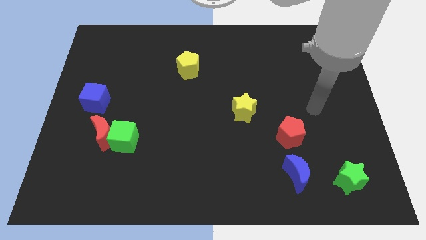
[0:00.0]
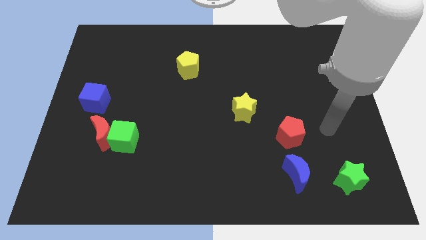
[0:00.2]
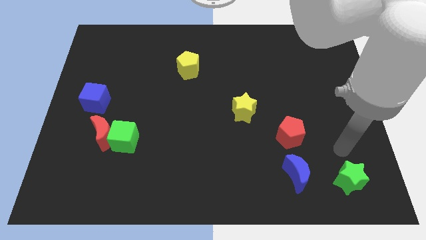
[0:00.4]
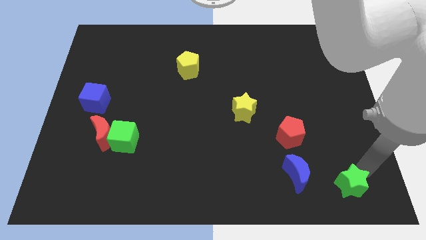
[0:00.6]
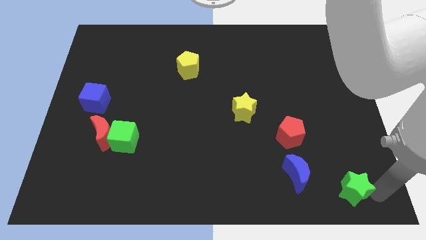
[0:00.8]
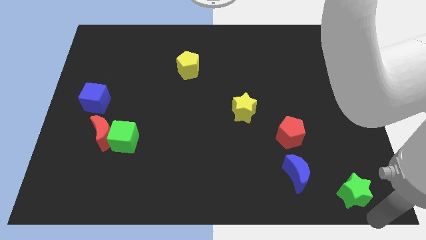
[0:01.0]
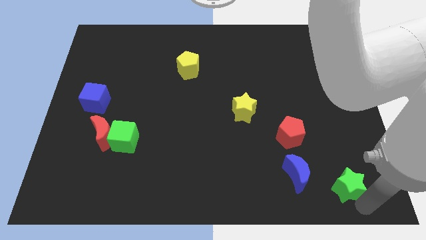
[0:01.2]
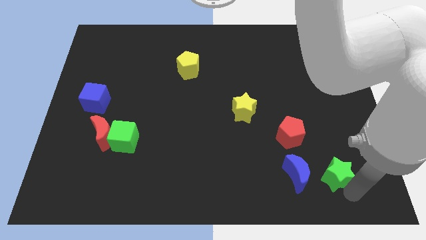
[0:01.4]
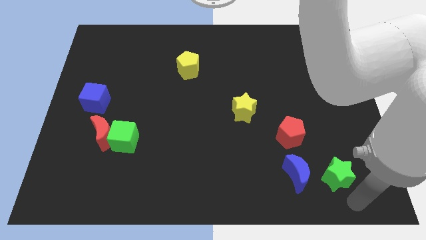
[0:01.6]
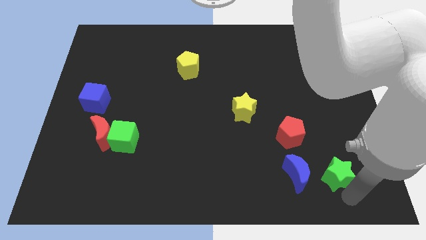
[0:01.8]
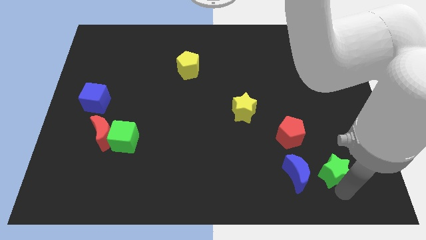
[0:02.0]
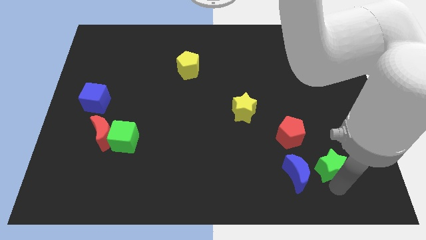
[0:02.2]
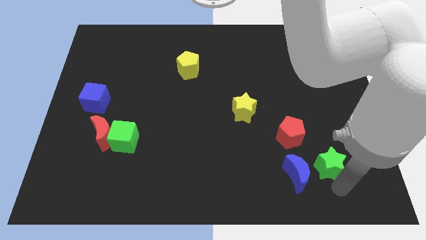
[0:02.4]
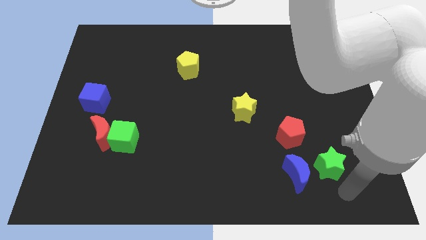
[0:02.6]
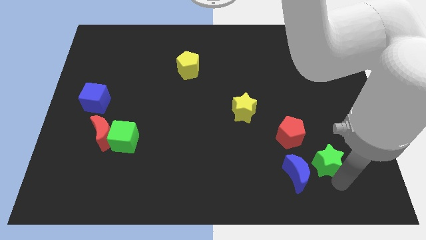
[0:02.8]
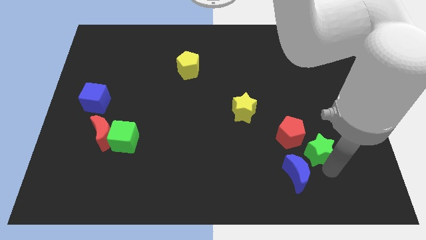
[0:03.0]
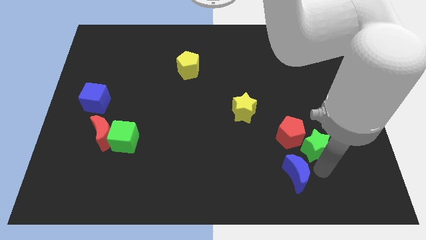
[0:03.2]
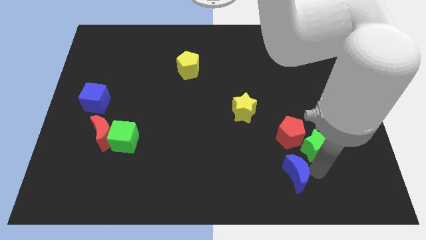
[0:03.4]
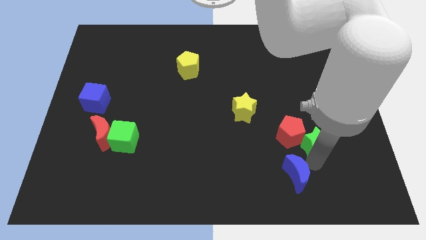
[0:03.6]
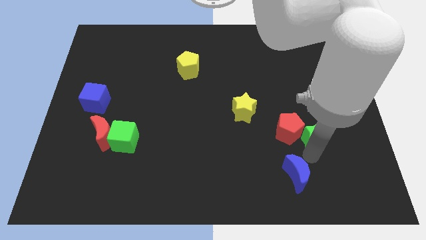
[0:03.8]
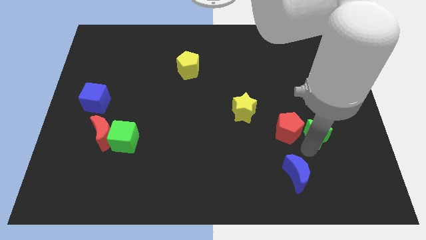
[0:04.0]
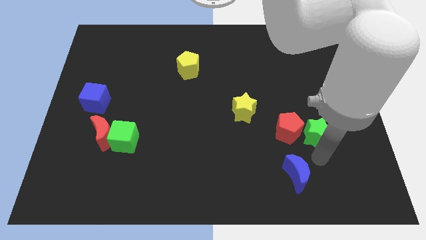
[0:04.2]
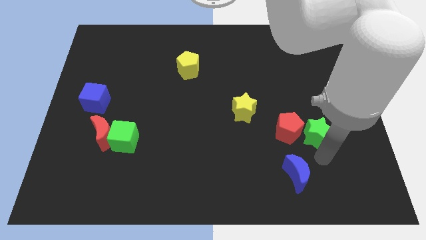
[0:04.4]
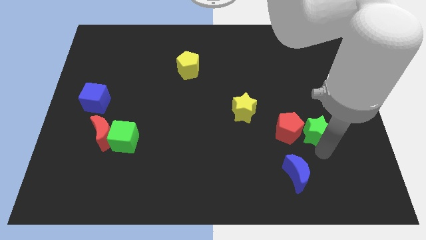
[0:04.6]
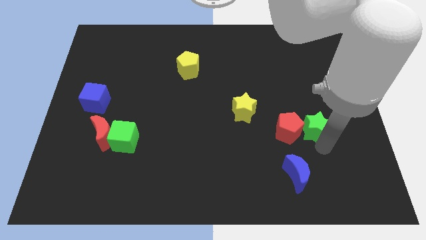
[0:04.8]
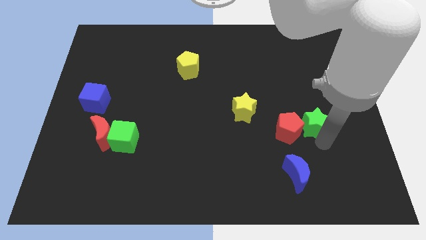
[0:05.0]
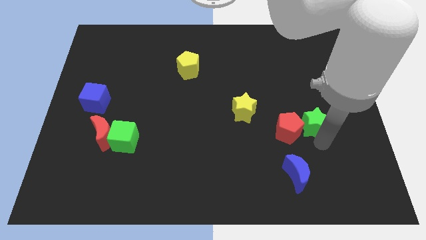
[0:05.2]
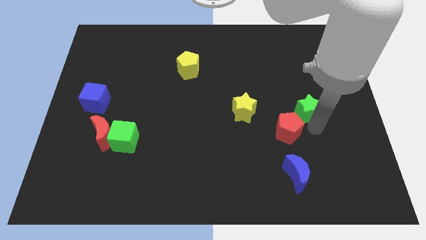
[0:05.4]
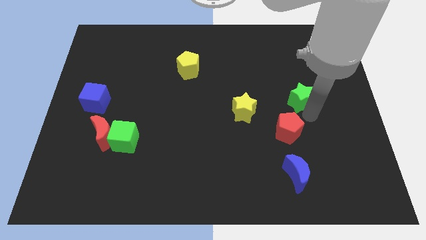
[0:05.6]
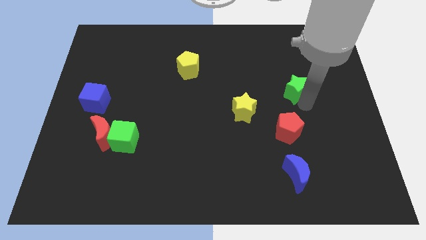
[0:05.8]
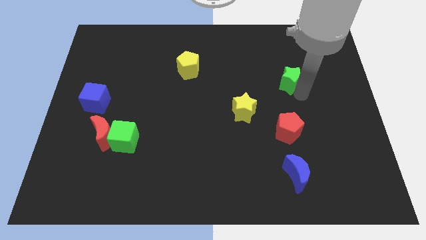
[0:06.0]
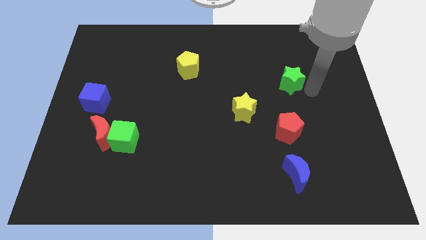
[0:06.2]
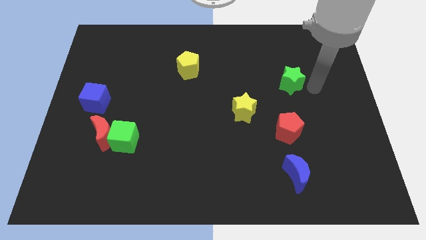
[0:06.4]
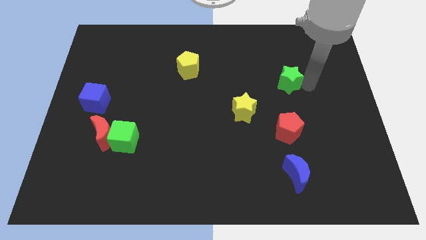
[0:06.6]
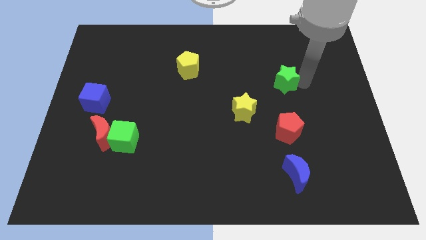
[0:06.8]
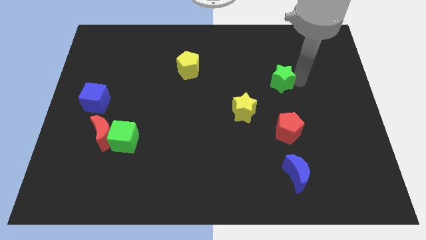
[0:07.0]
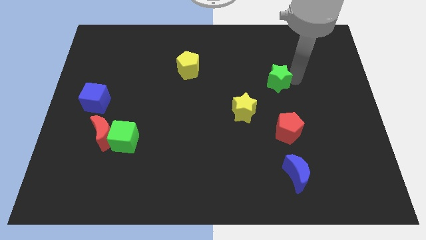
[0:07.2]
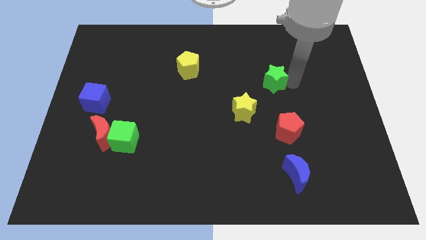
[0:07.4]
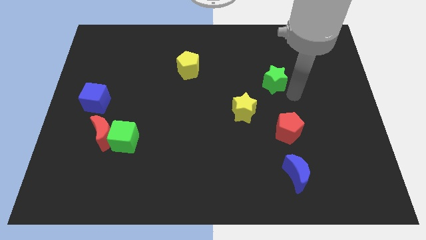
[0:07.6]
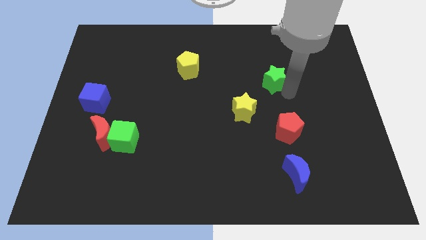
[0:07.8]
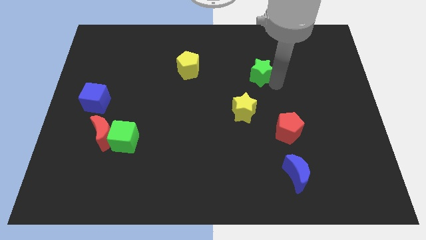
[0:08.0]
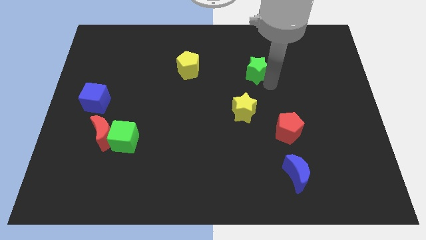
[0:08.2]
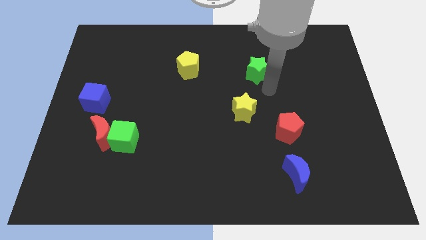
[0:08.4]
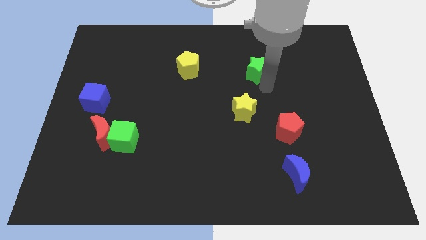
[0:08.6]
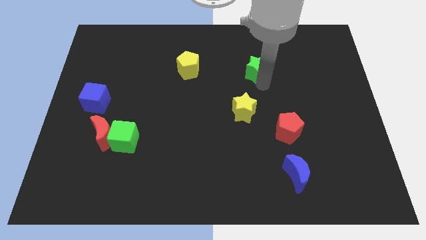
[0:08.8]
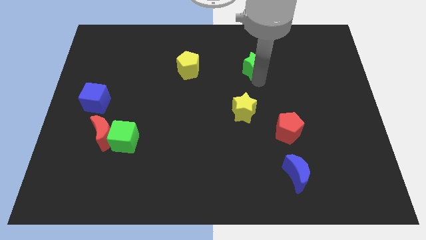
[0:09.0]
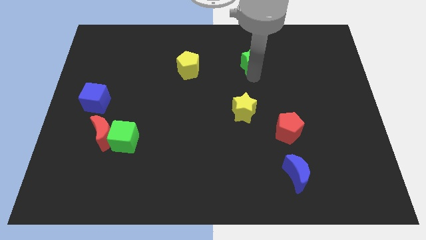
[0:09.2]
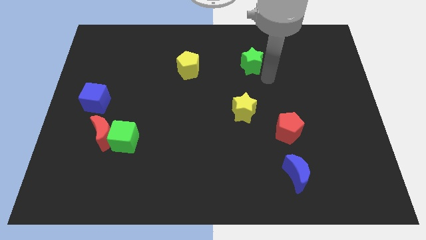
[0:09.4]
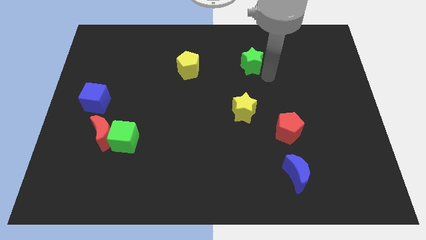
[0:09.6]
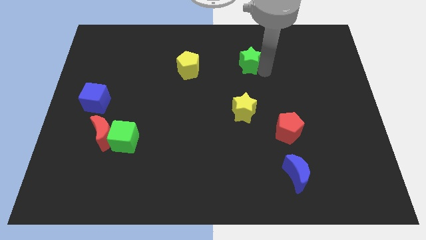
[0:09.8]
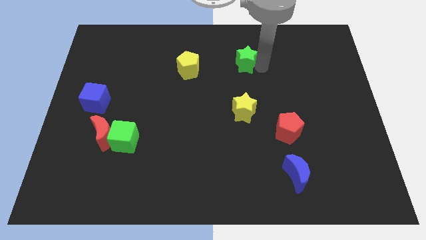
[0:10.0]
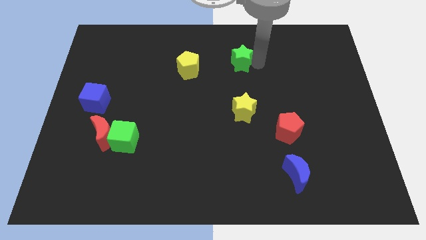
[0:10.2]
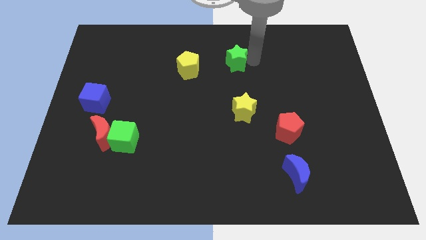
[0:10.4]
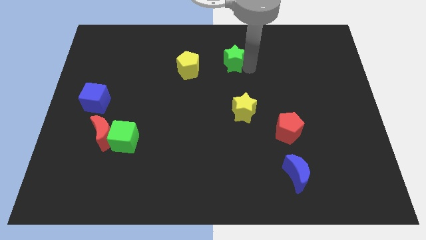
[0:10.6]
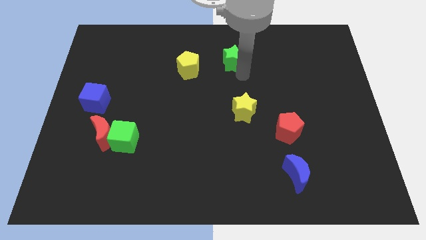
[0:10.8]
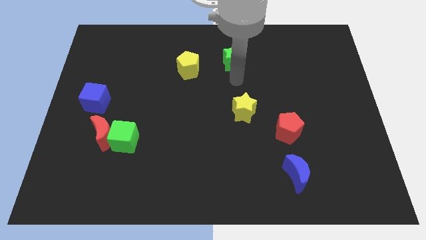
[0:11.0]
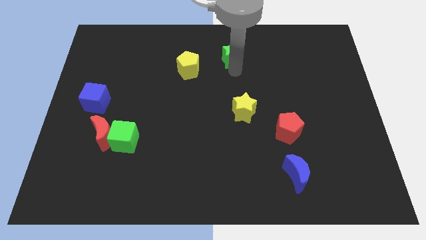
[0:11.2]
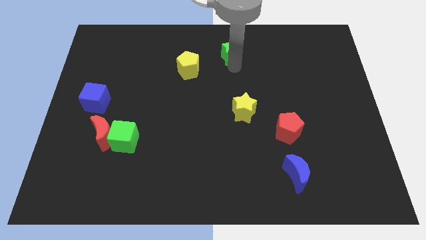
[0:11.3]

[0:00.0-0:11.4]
slide the green star to the top side

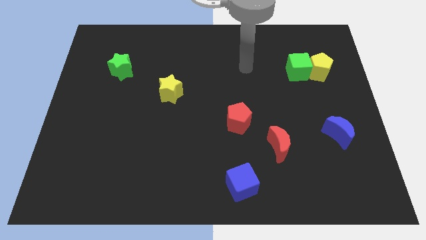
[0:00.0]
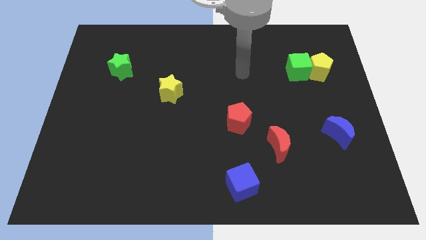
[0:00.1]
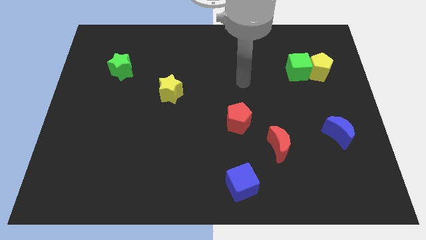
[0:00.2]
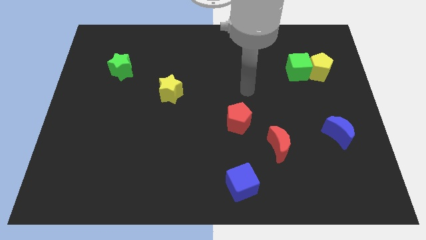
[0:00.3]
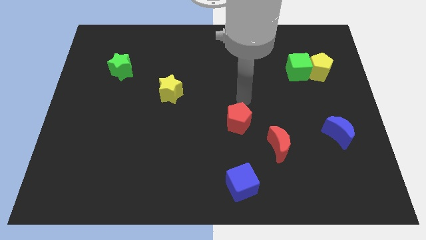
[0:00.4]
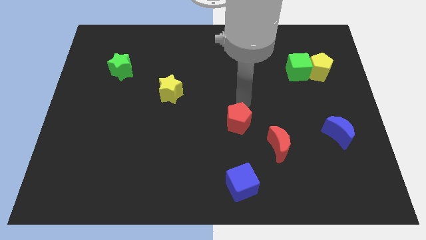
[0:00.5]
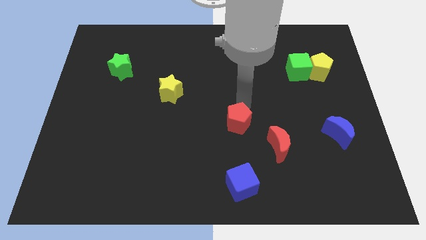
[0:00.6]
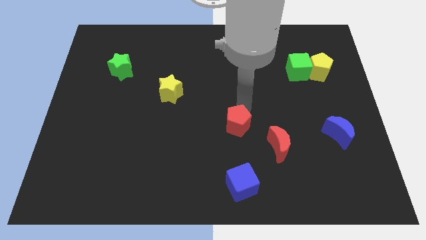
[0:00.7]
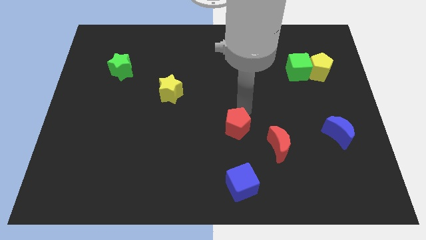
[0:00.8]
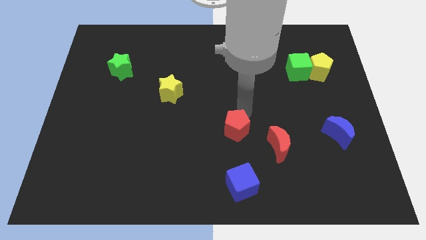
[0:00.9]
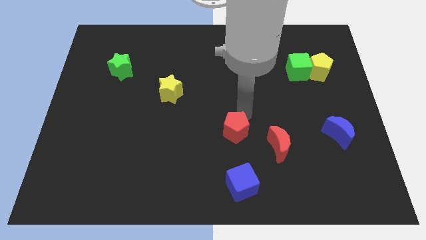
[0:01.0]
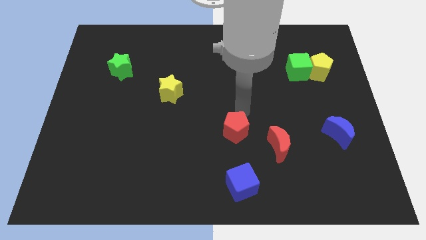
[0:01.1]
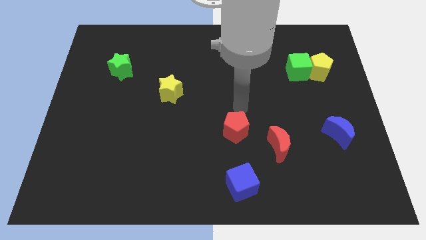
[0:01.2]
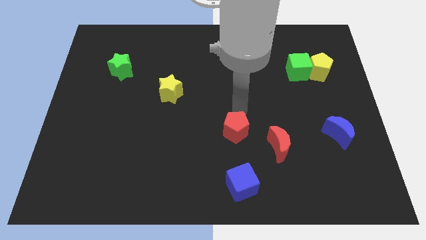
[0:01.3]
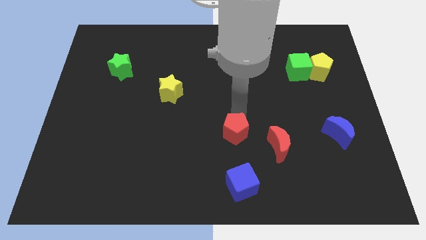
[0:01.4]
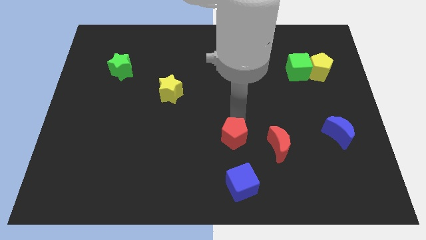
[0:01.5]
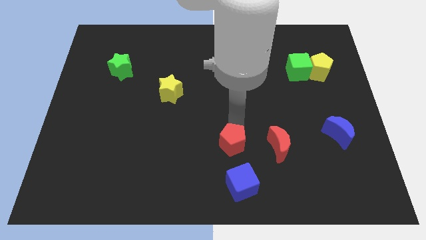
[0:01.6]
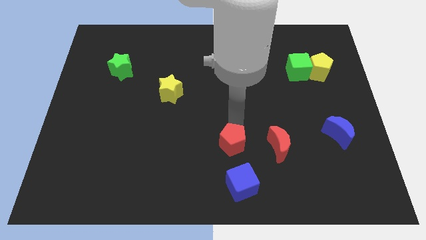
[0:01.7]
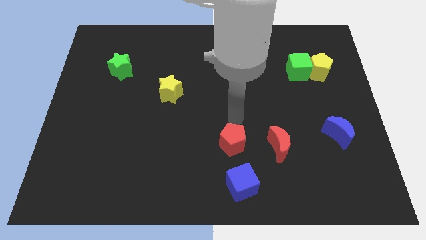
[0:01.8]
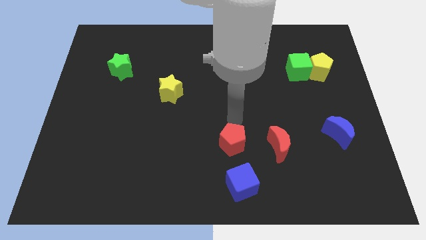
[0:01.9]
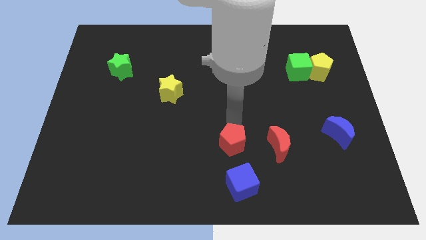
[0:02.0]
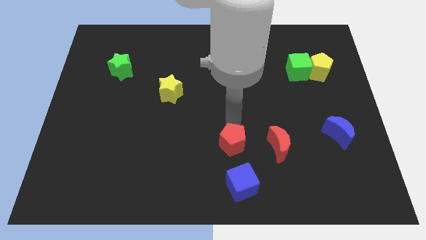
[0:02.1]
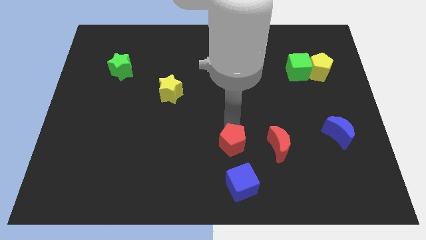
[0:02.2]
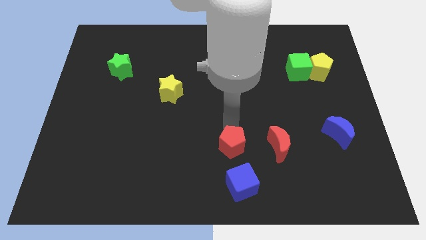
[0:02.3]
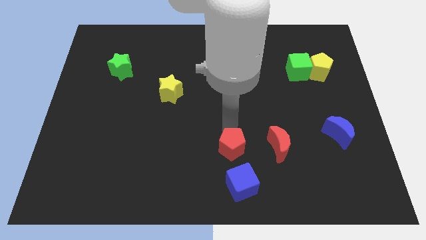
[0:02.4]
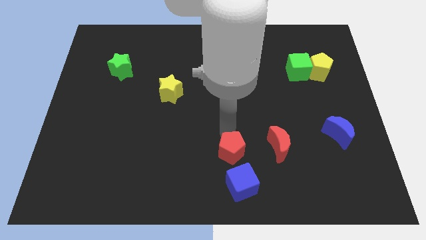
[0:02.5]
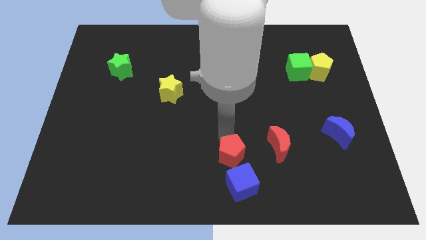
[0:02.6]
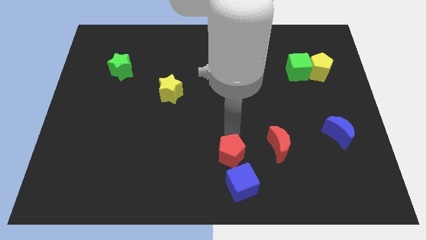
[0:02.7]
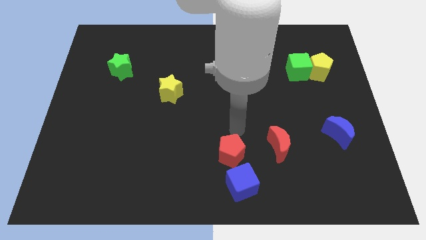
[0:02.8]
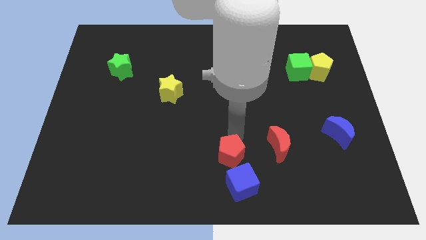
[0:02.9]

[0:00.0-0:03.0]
put the red pentagon to the bottom
